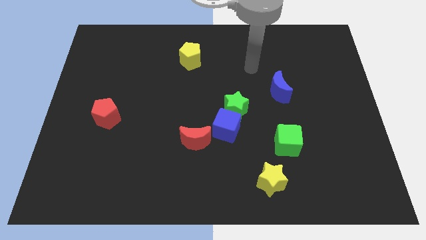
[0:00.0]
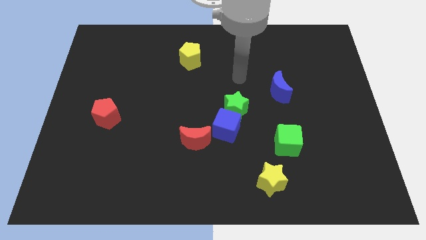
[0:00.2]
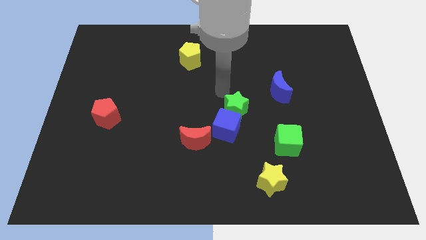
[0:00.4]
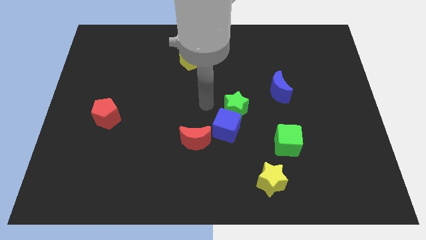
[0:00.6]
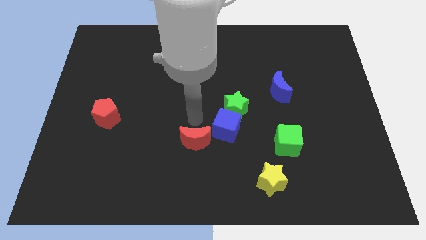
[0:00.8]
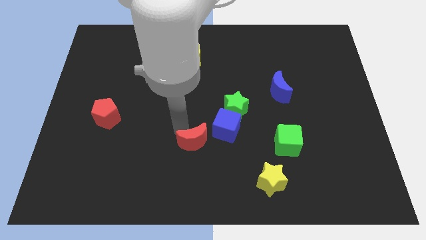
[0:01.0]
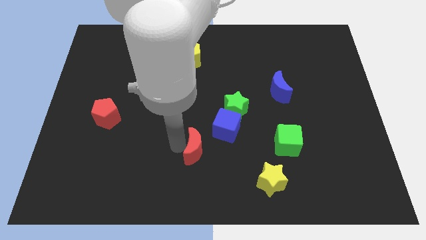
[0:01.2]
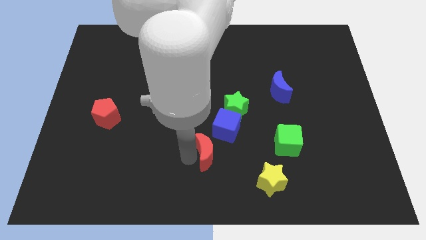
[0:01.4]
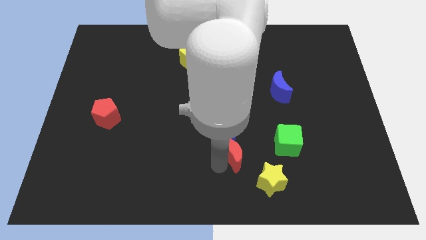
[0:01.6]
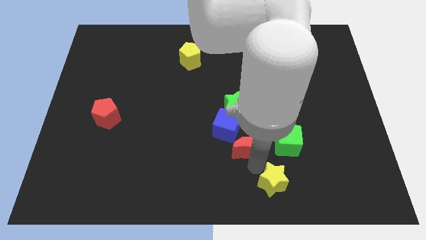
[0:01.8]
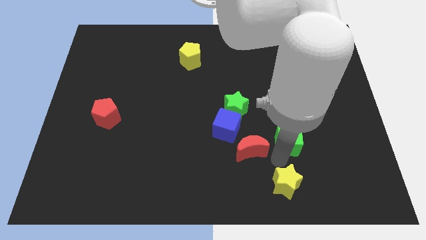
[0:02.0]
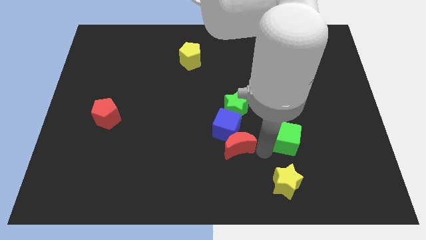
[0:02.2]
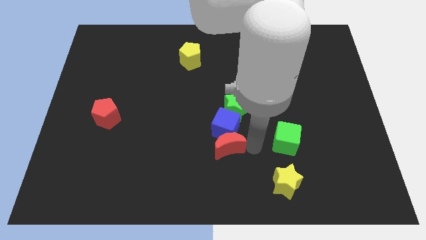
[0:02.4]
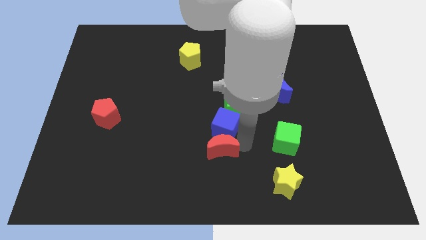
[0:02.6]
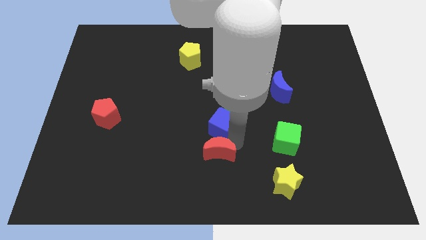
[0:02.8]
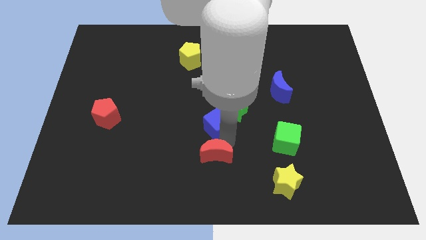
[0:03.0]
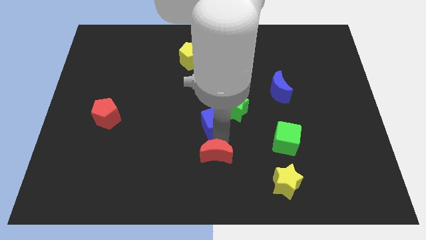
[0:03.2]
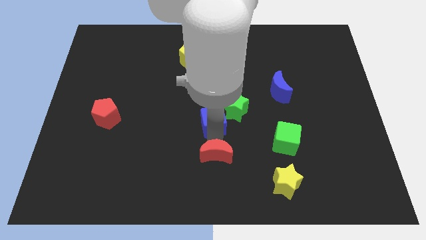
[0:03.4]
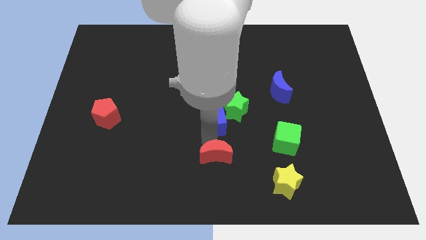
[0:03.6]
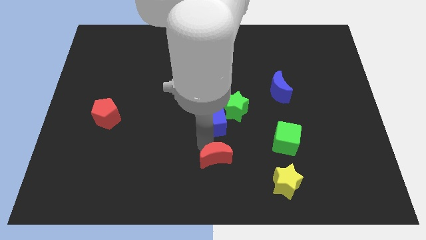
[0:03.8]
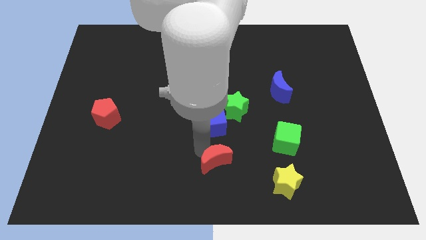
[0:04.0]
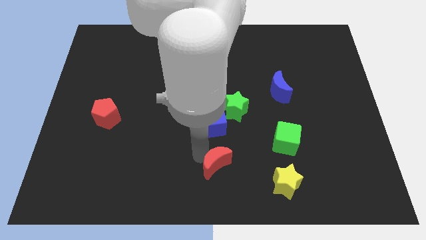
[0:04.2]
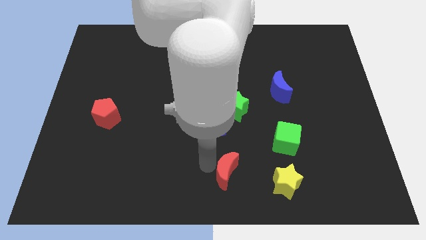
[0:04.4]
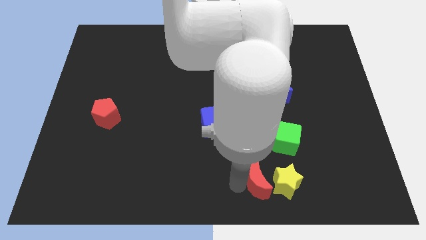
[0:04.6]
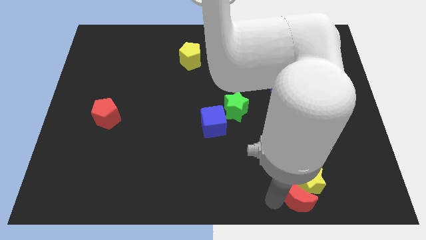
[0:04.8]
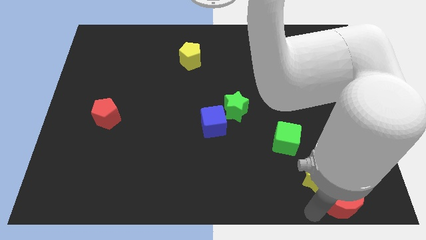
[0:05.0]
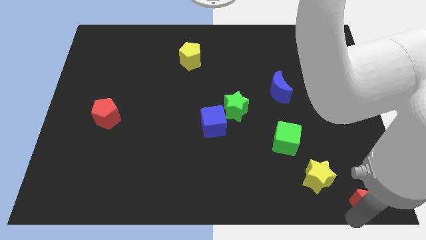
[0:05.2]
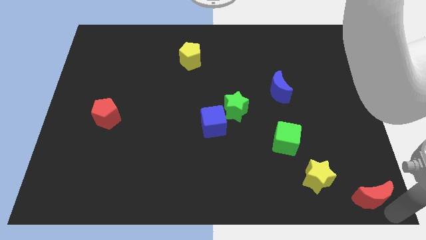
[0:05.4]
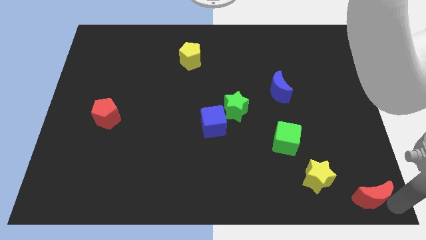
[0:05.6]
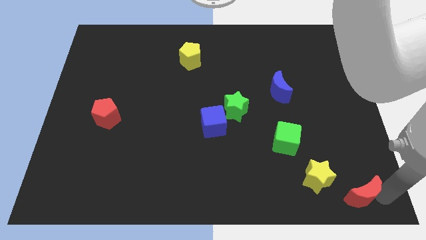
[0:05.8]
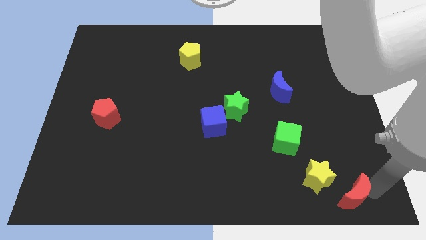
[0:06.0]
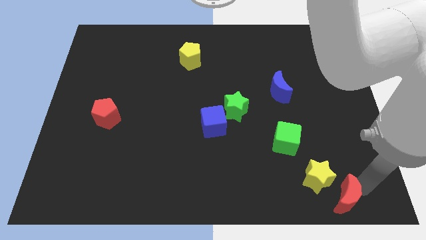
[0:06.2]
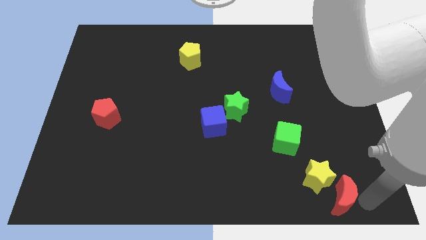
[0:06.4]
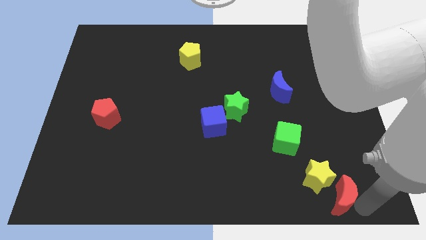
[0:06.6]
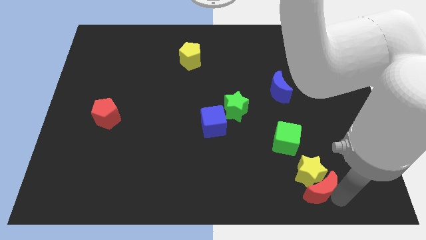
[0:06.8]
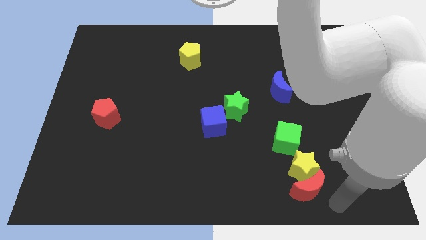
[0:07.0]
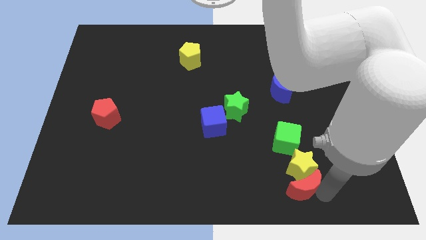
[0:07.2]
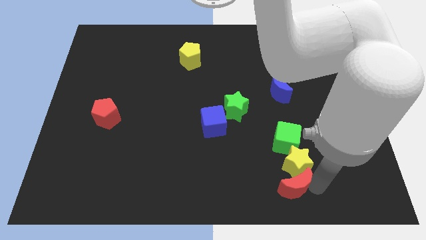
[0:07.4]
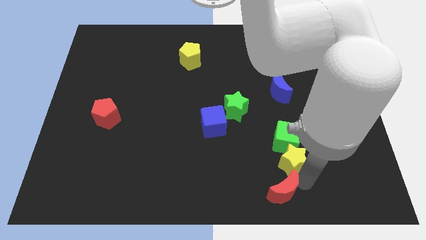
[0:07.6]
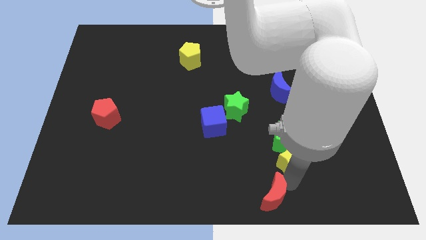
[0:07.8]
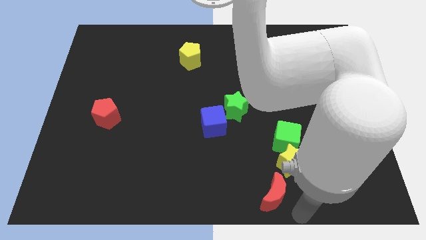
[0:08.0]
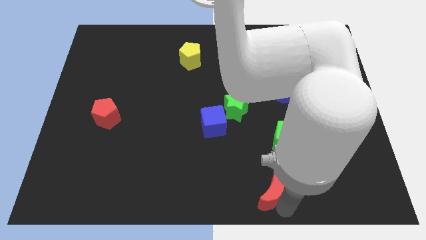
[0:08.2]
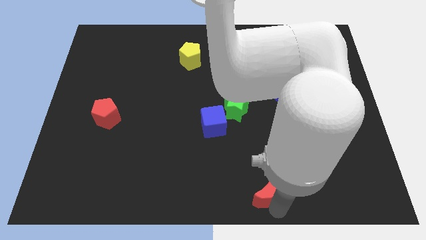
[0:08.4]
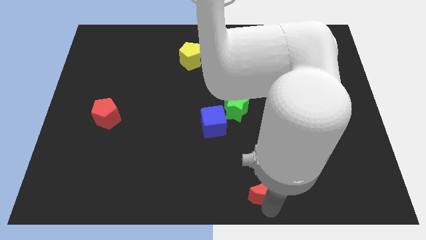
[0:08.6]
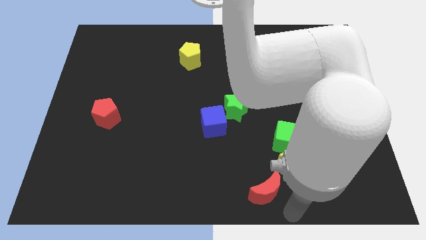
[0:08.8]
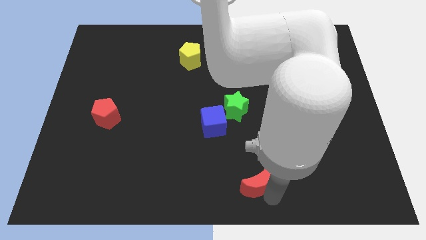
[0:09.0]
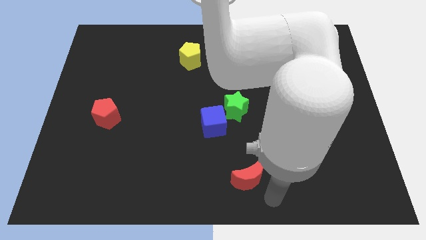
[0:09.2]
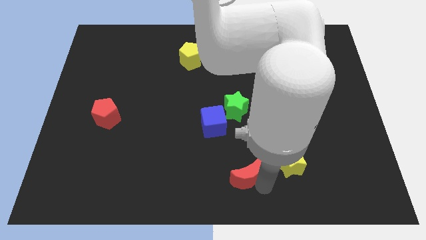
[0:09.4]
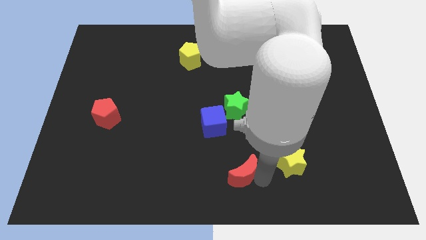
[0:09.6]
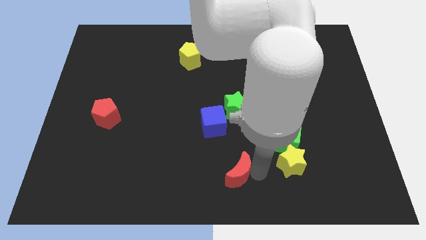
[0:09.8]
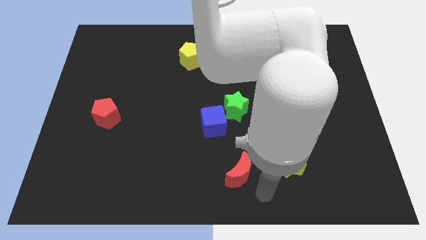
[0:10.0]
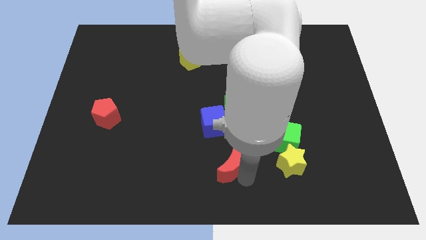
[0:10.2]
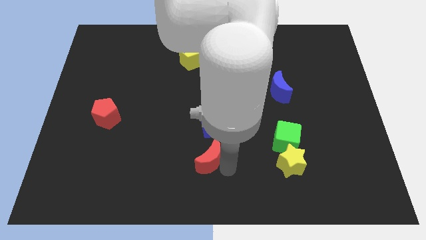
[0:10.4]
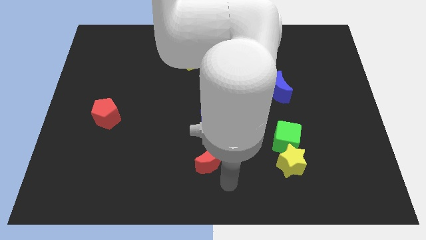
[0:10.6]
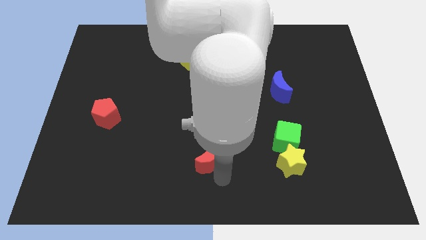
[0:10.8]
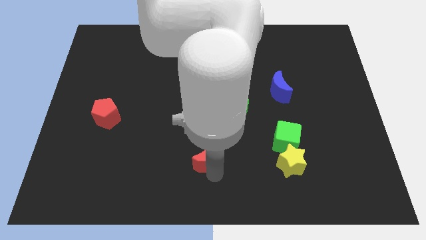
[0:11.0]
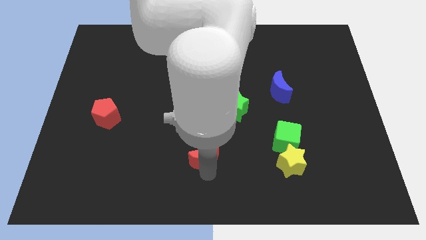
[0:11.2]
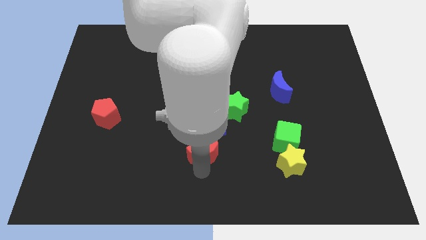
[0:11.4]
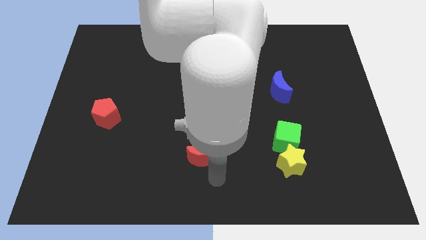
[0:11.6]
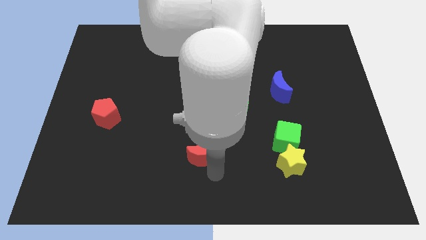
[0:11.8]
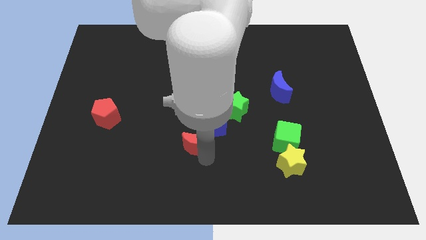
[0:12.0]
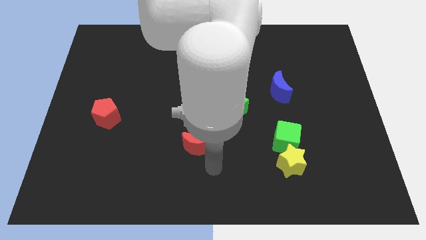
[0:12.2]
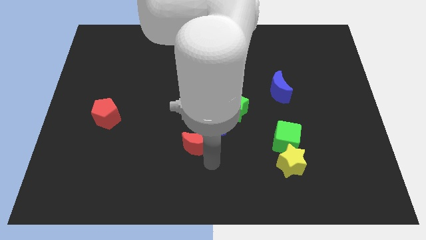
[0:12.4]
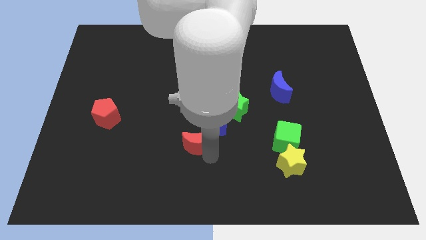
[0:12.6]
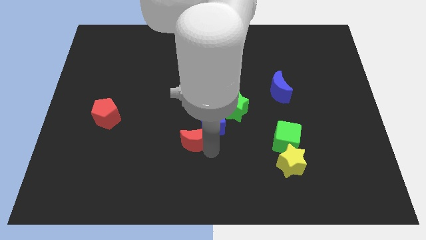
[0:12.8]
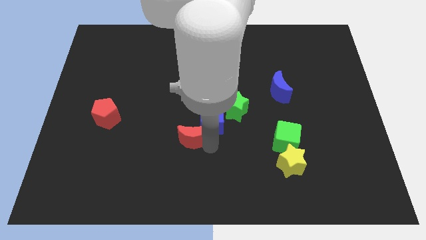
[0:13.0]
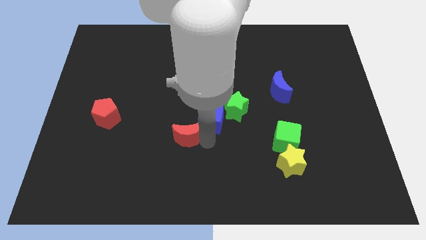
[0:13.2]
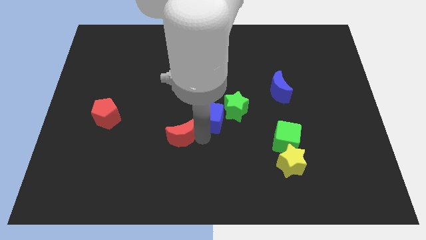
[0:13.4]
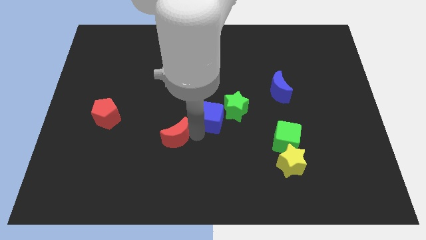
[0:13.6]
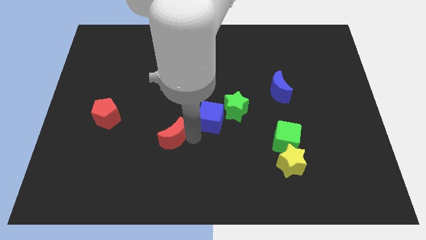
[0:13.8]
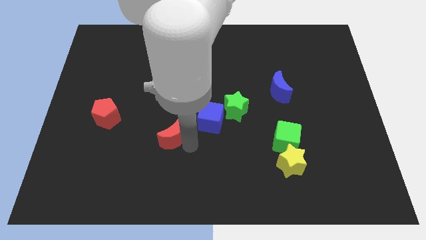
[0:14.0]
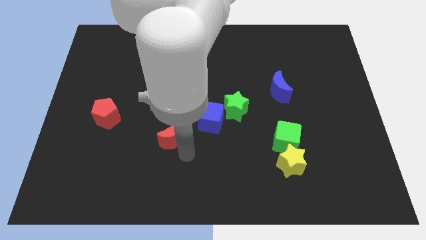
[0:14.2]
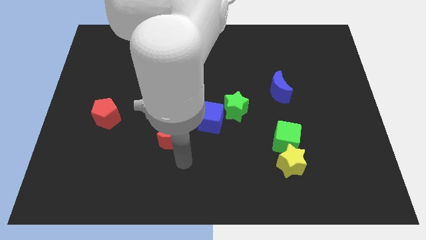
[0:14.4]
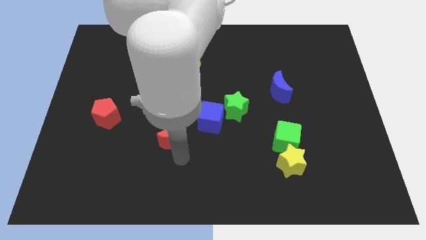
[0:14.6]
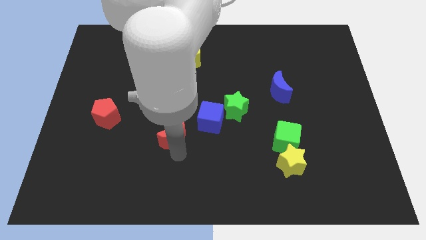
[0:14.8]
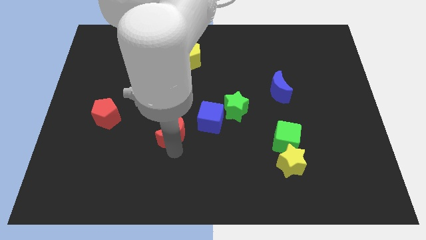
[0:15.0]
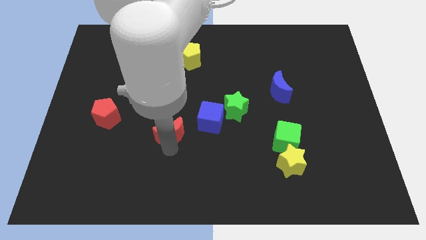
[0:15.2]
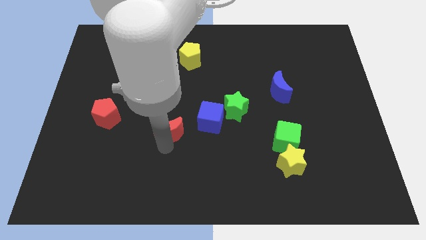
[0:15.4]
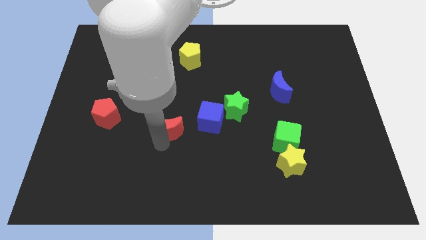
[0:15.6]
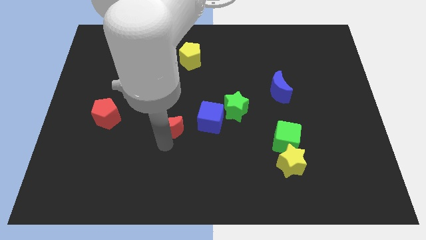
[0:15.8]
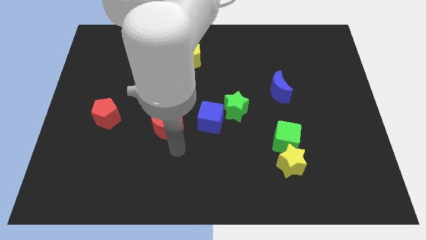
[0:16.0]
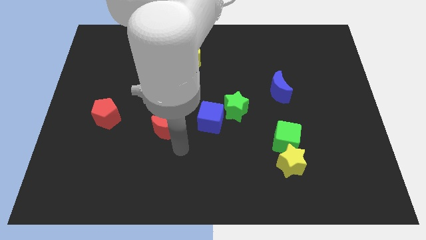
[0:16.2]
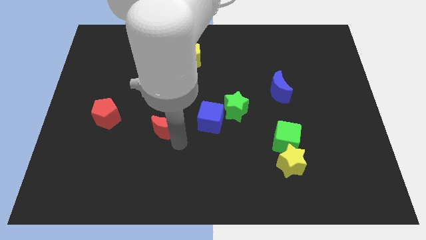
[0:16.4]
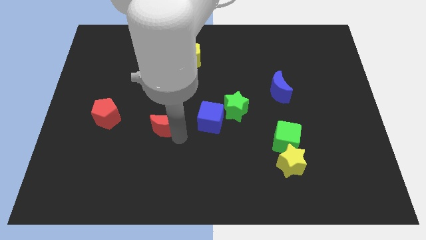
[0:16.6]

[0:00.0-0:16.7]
move the red moon up and left a little
